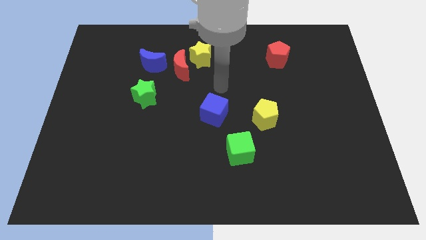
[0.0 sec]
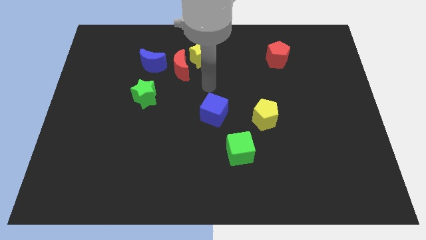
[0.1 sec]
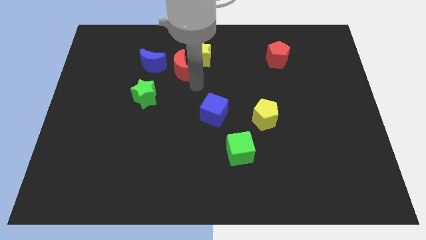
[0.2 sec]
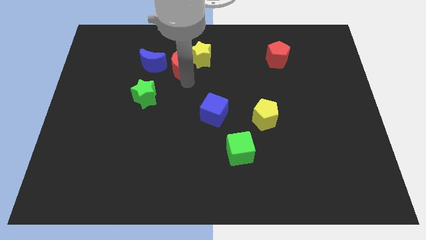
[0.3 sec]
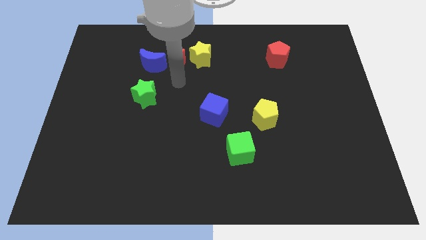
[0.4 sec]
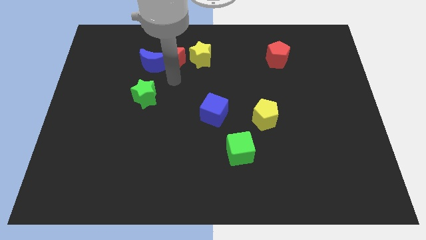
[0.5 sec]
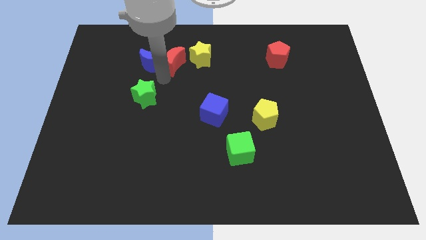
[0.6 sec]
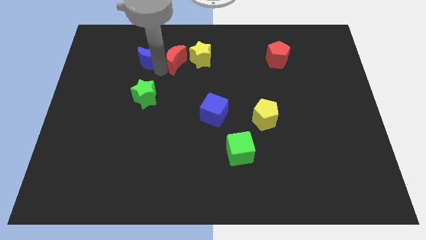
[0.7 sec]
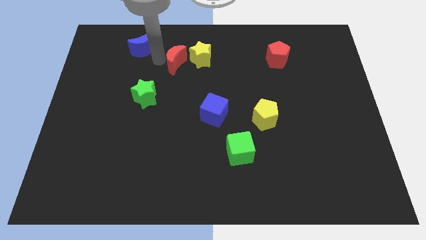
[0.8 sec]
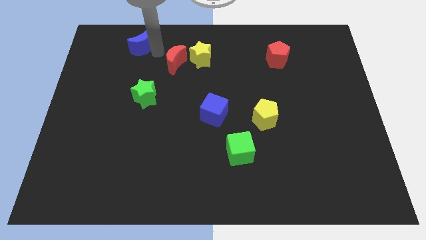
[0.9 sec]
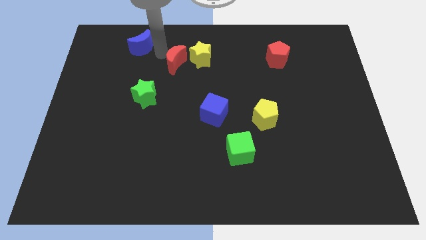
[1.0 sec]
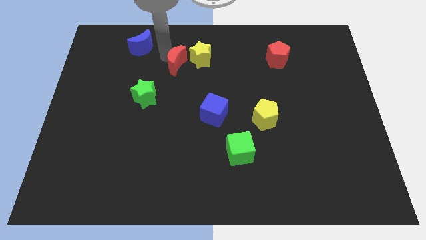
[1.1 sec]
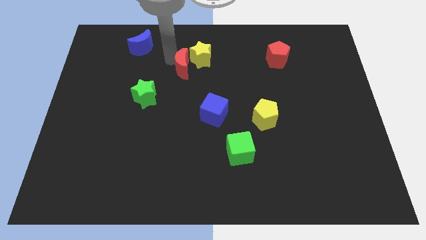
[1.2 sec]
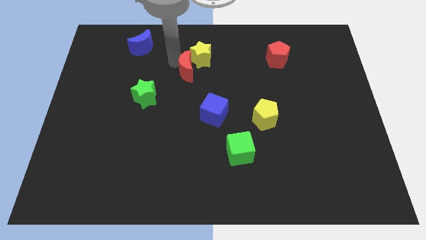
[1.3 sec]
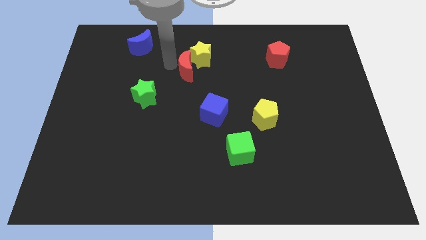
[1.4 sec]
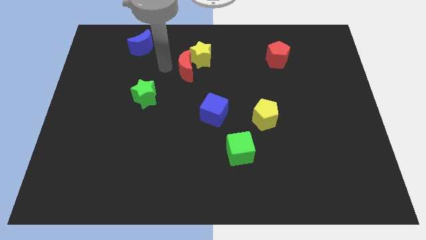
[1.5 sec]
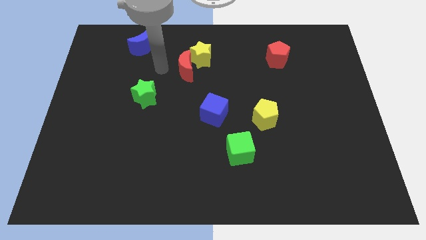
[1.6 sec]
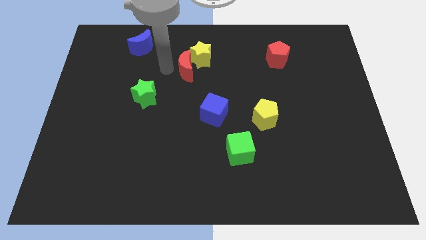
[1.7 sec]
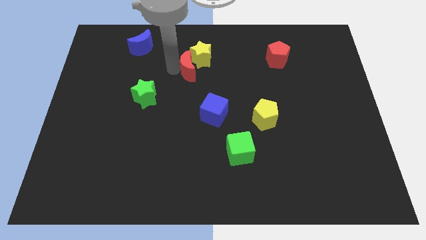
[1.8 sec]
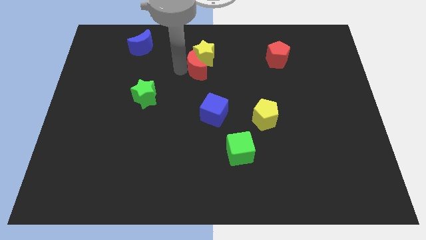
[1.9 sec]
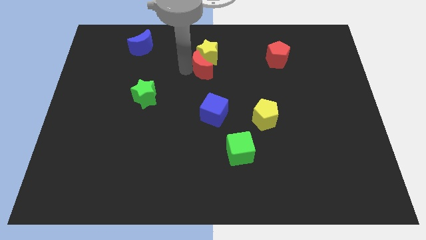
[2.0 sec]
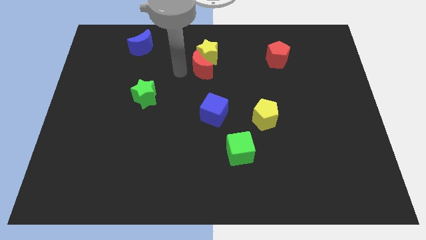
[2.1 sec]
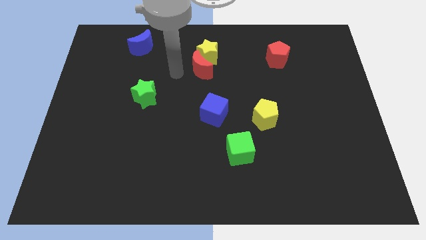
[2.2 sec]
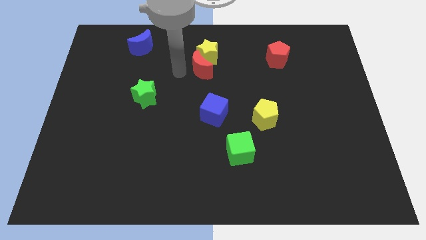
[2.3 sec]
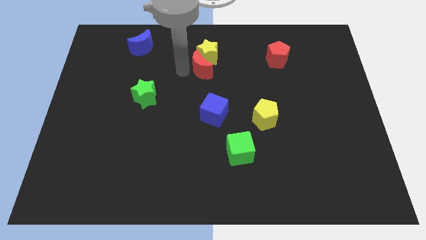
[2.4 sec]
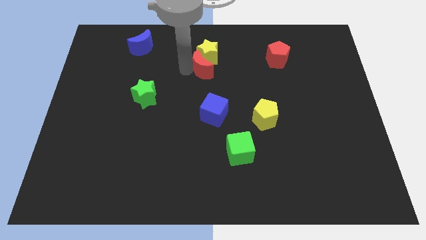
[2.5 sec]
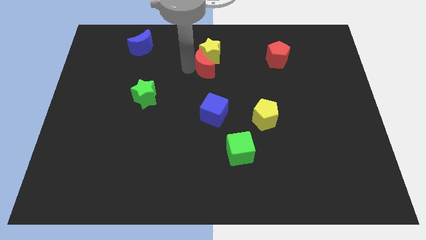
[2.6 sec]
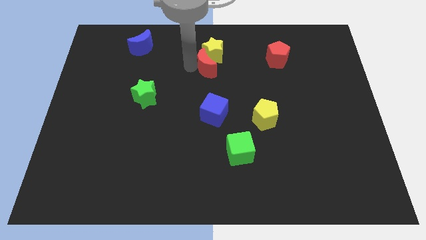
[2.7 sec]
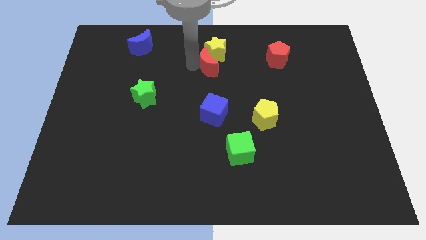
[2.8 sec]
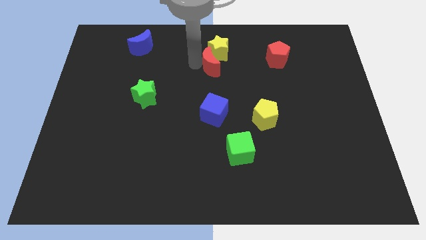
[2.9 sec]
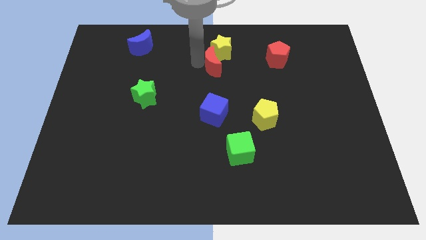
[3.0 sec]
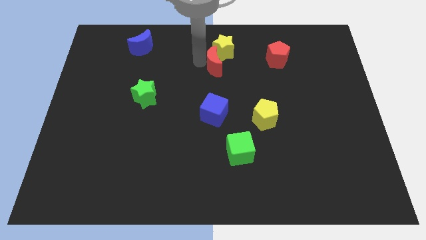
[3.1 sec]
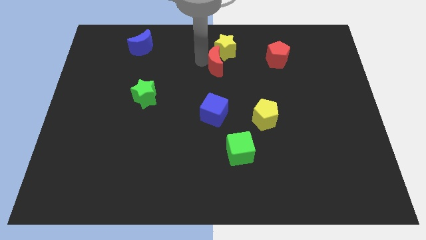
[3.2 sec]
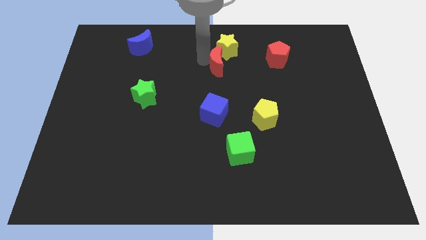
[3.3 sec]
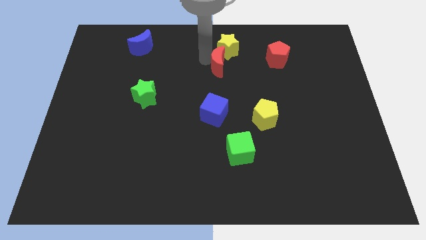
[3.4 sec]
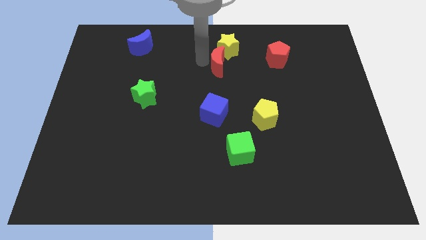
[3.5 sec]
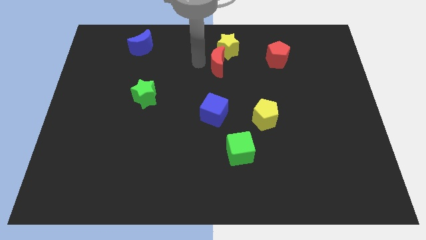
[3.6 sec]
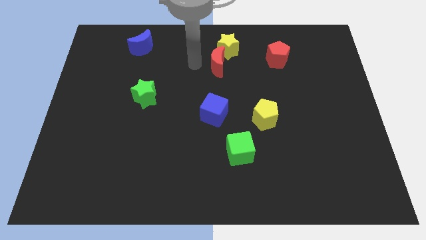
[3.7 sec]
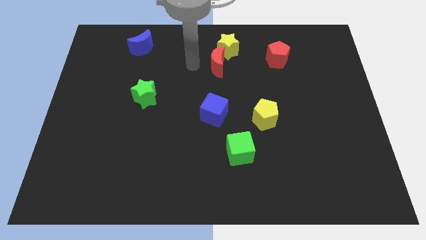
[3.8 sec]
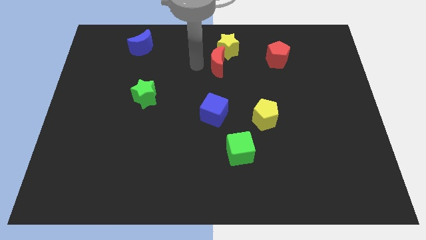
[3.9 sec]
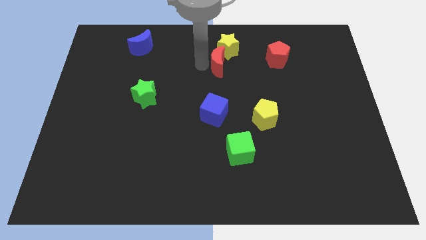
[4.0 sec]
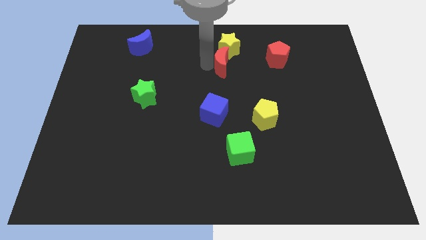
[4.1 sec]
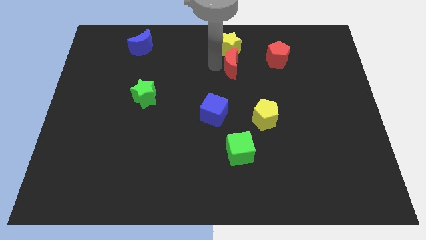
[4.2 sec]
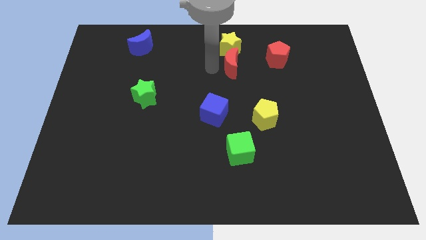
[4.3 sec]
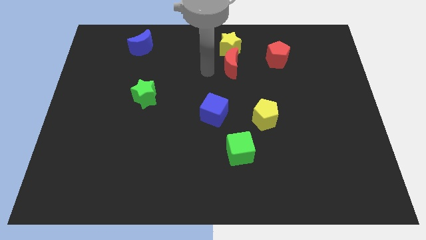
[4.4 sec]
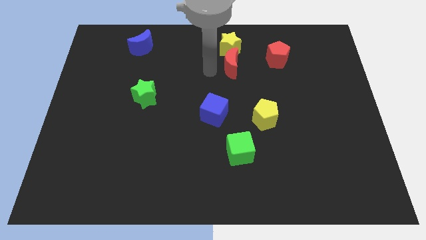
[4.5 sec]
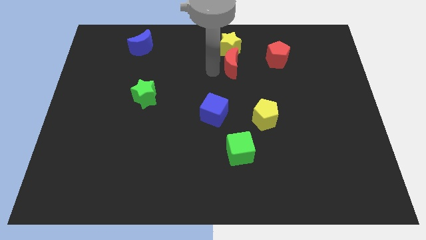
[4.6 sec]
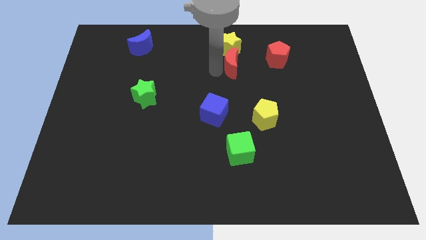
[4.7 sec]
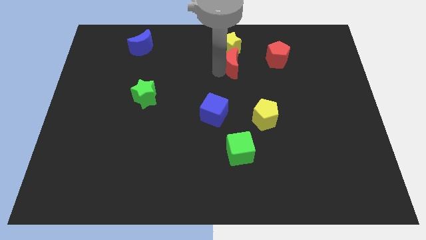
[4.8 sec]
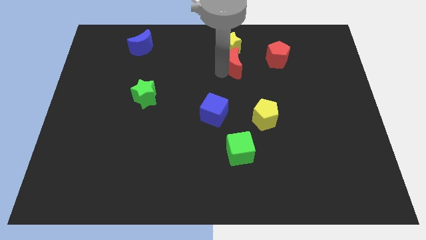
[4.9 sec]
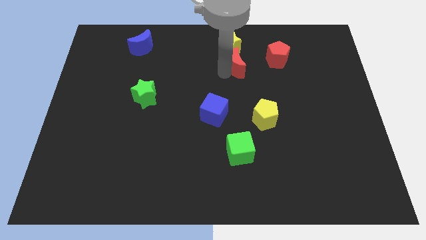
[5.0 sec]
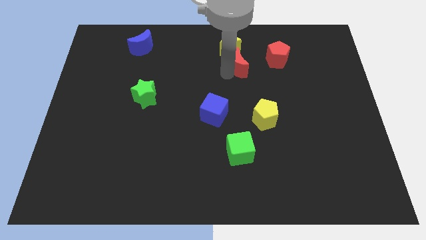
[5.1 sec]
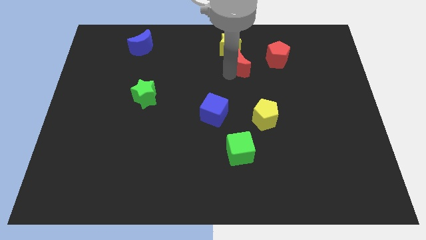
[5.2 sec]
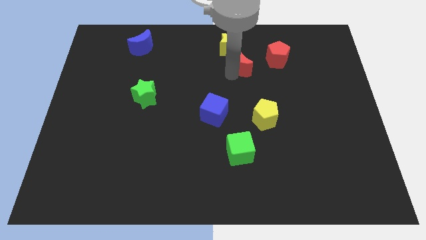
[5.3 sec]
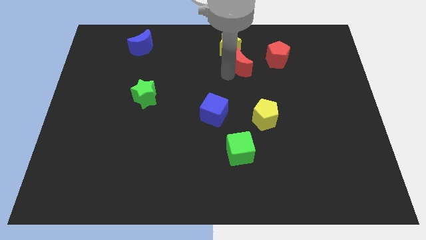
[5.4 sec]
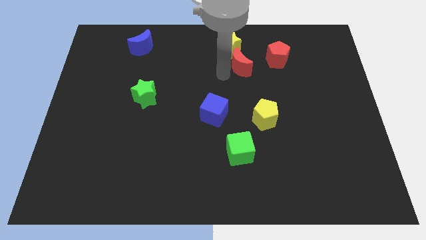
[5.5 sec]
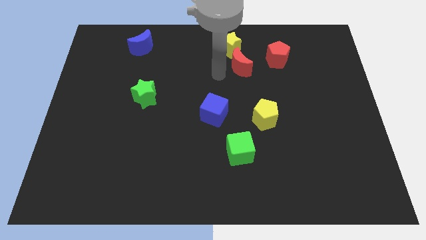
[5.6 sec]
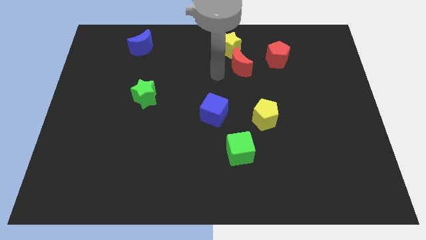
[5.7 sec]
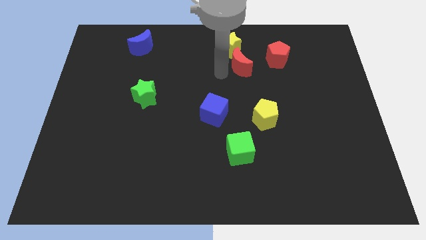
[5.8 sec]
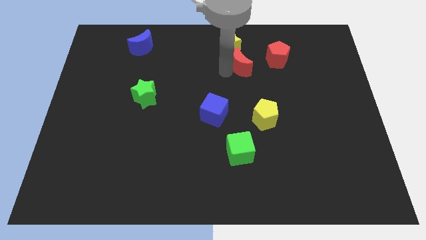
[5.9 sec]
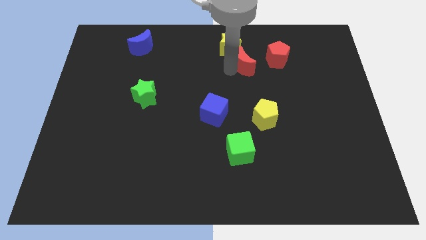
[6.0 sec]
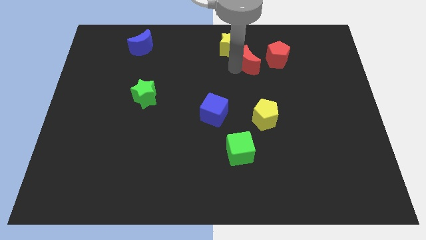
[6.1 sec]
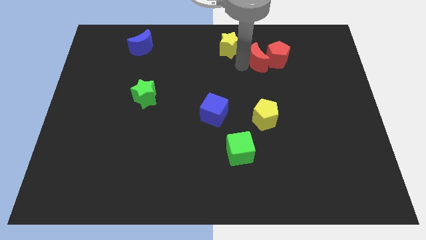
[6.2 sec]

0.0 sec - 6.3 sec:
move the red moon to the red pentagon

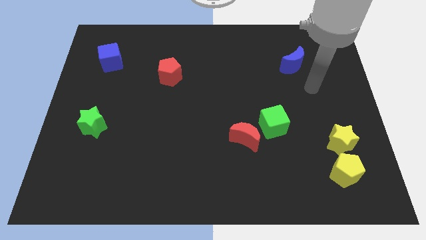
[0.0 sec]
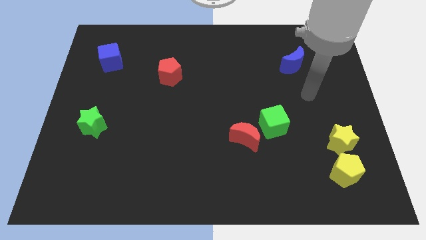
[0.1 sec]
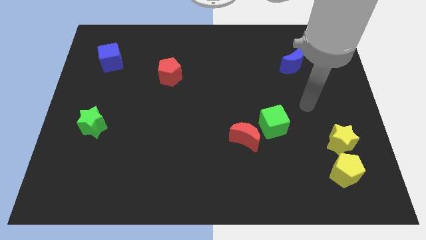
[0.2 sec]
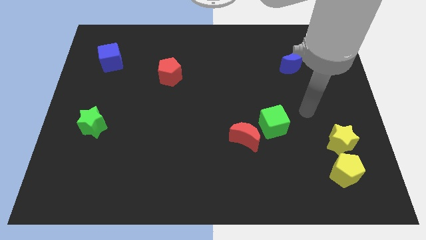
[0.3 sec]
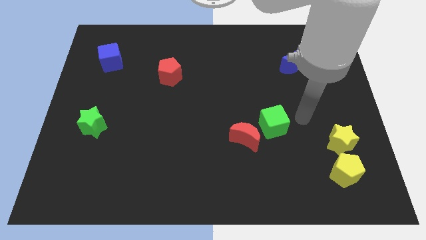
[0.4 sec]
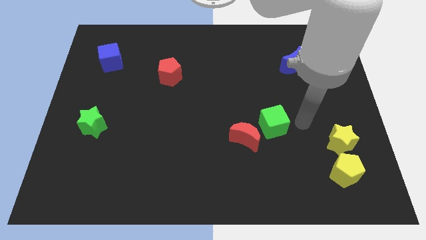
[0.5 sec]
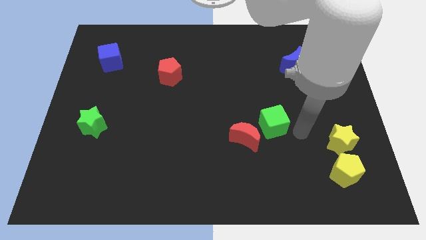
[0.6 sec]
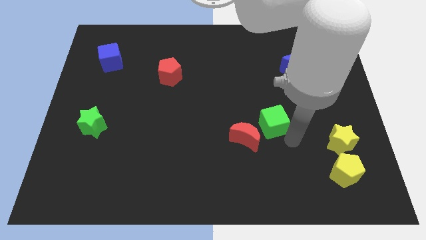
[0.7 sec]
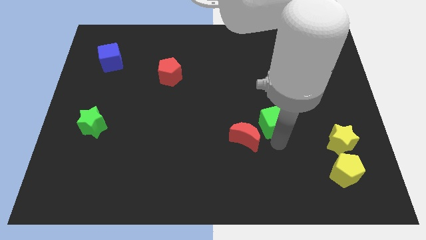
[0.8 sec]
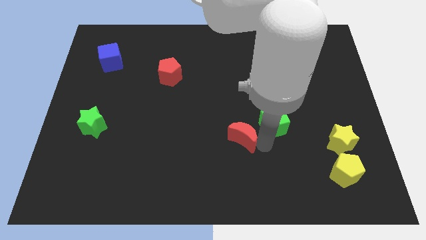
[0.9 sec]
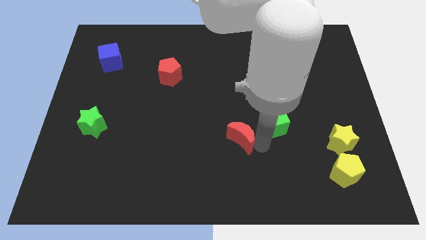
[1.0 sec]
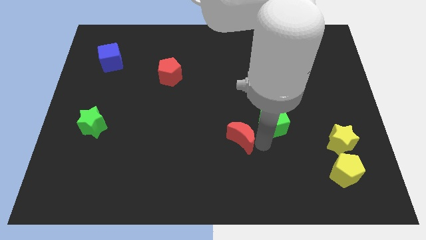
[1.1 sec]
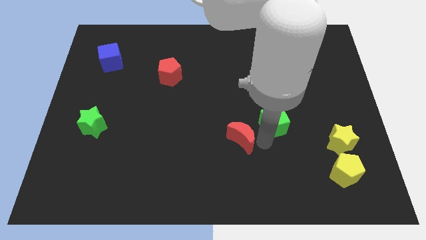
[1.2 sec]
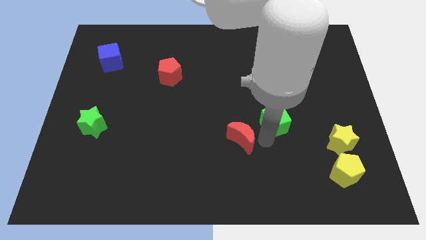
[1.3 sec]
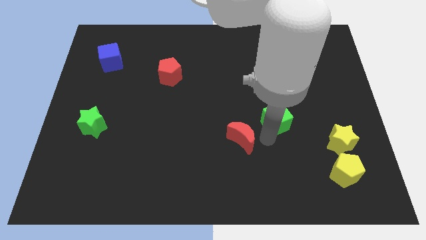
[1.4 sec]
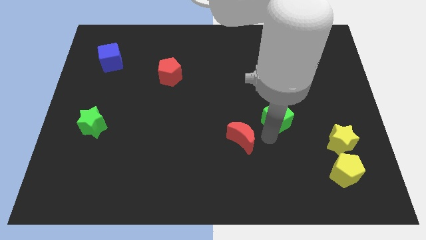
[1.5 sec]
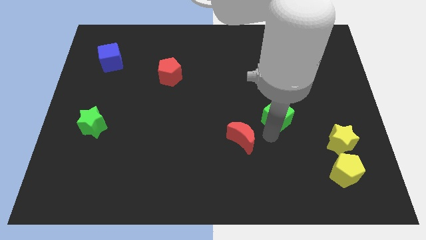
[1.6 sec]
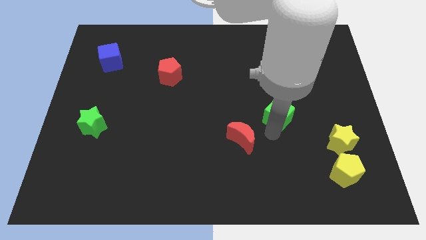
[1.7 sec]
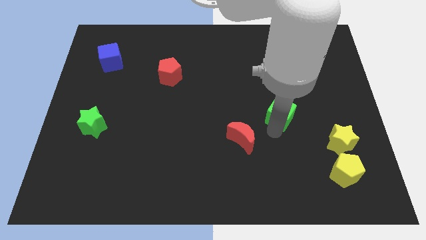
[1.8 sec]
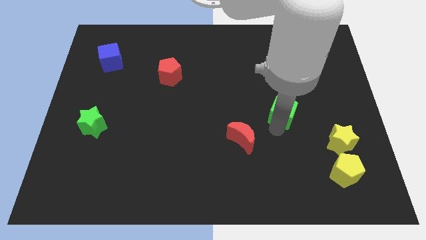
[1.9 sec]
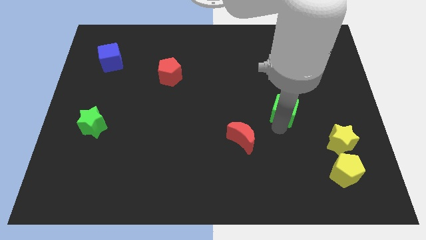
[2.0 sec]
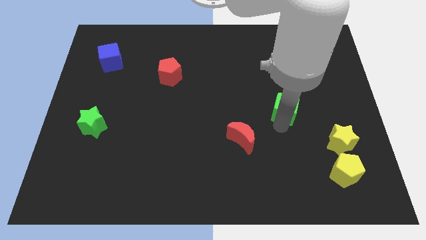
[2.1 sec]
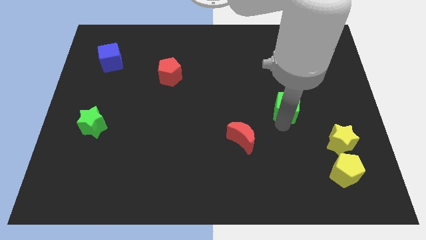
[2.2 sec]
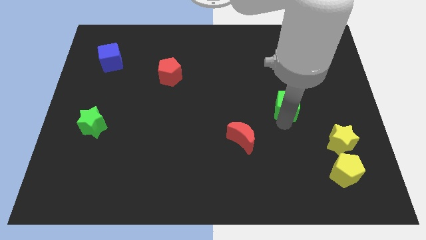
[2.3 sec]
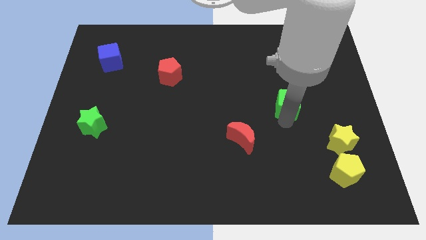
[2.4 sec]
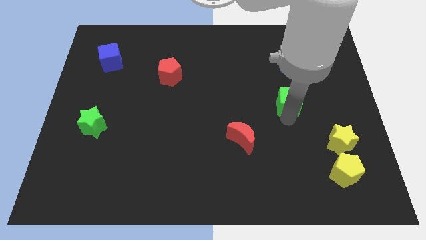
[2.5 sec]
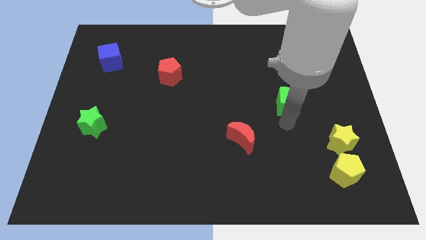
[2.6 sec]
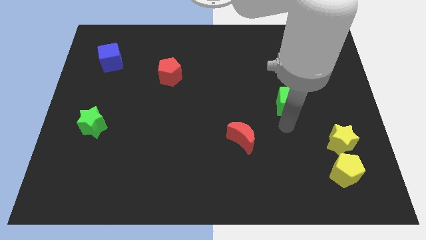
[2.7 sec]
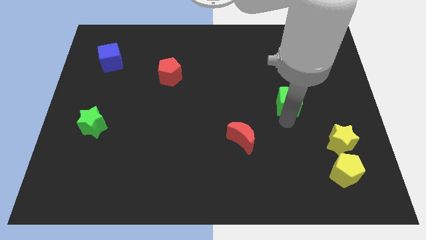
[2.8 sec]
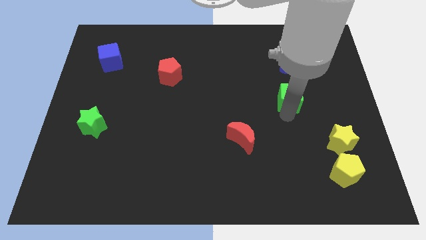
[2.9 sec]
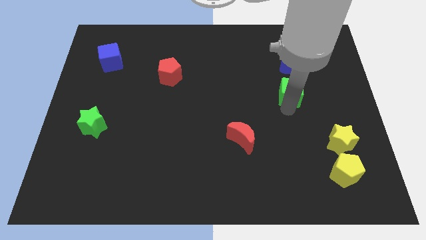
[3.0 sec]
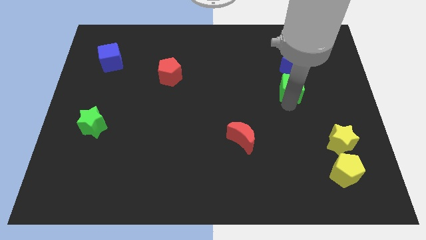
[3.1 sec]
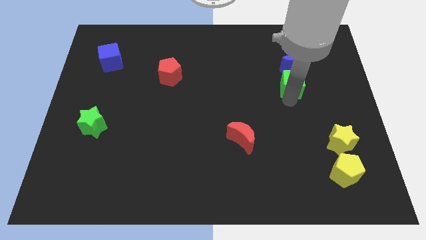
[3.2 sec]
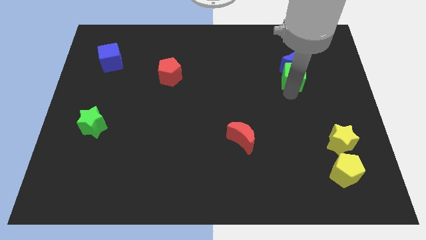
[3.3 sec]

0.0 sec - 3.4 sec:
slide the green cube close to the blue moon
